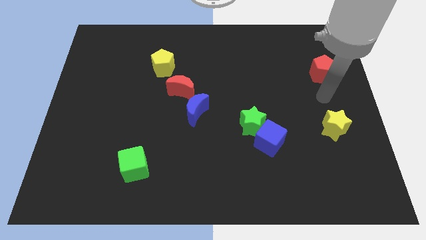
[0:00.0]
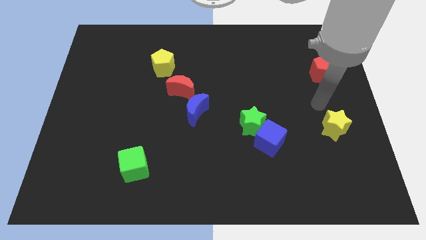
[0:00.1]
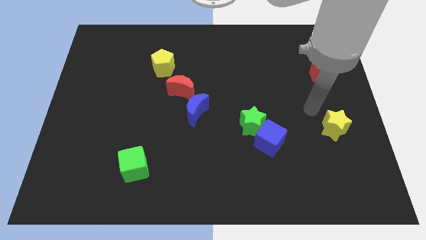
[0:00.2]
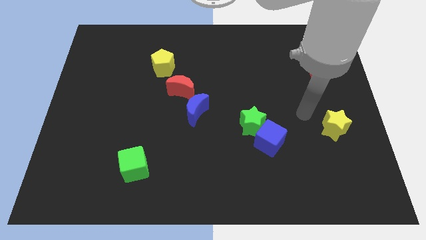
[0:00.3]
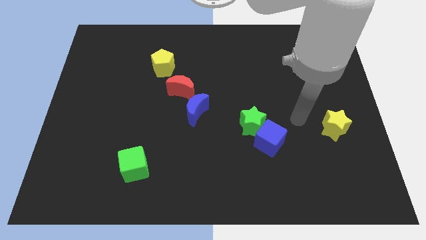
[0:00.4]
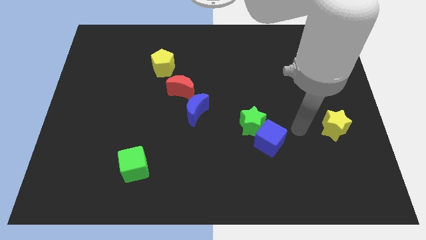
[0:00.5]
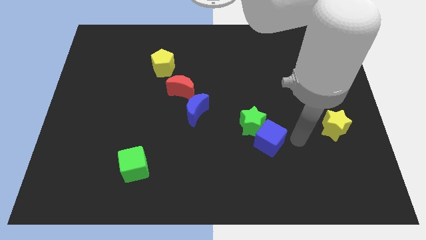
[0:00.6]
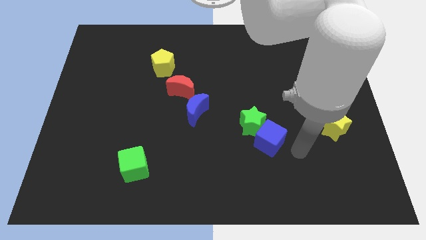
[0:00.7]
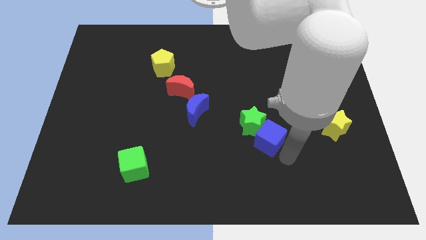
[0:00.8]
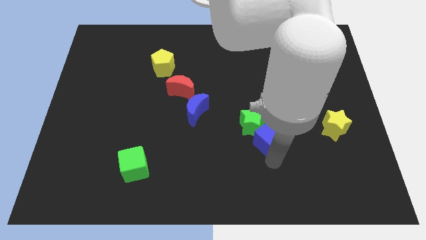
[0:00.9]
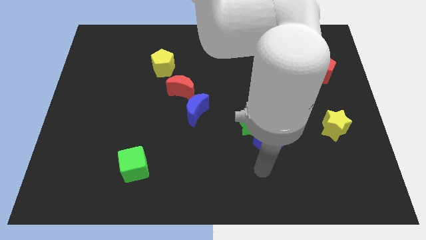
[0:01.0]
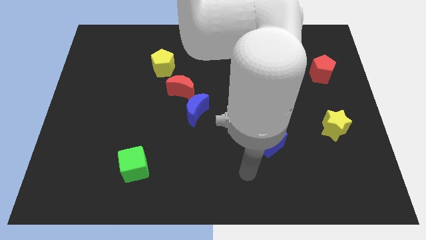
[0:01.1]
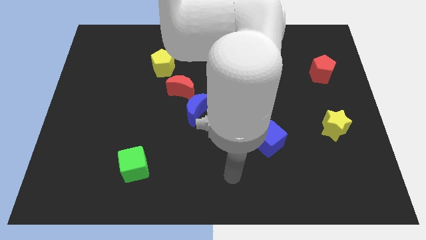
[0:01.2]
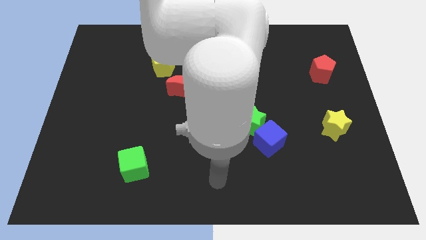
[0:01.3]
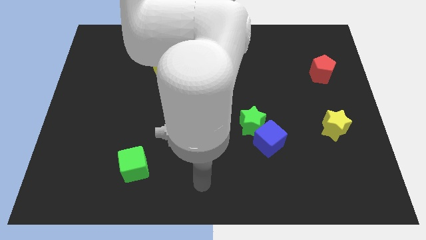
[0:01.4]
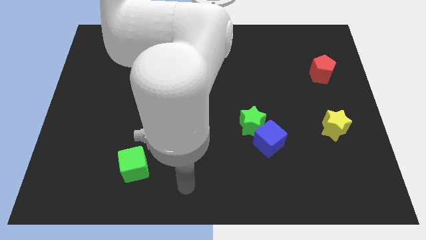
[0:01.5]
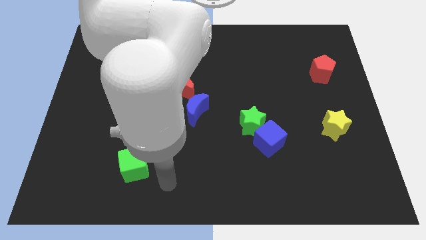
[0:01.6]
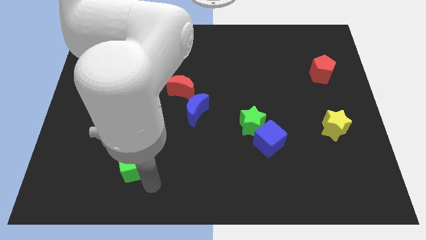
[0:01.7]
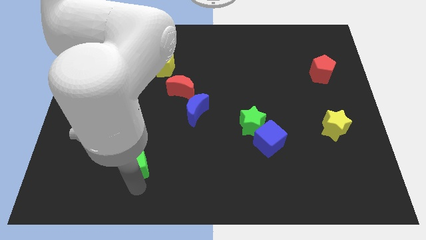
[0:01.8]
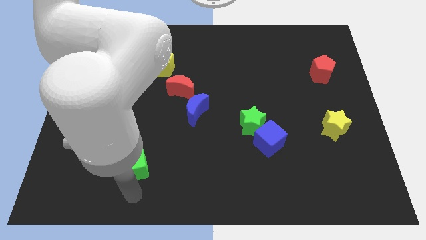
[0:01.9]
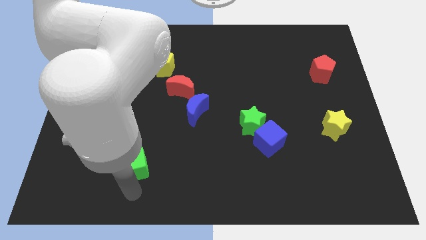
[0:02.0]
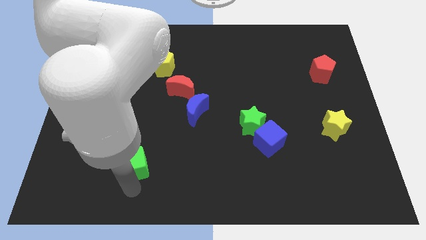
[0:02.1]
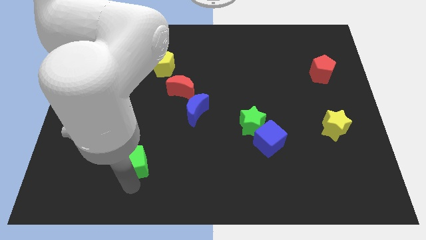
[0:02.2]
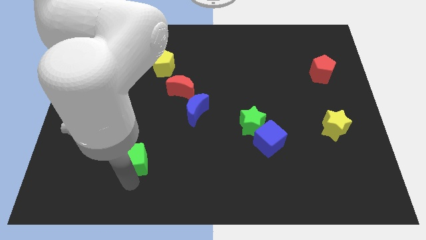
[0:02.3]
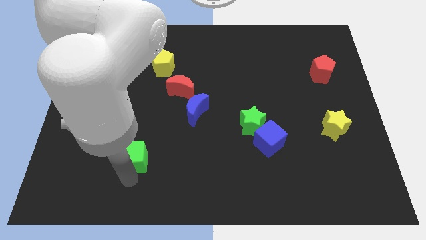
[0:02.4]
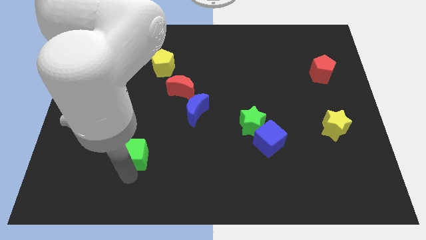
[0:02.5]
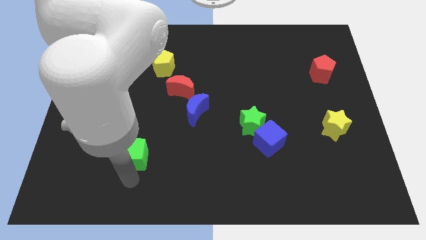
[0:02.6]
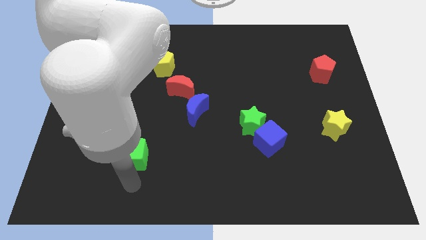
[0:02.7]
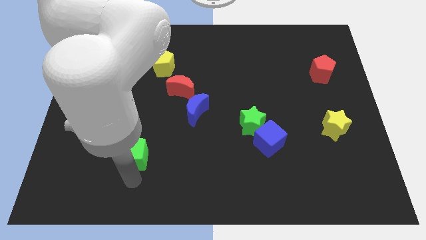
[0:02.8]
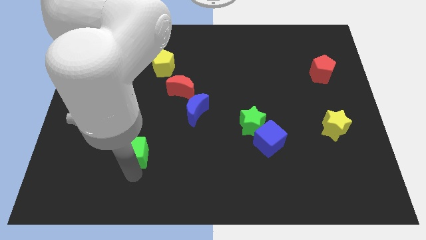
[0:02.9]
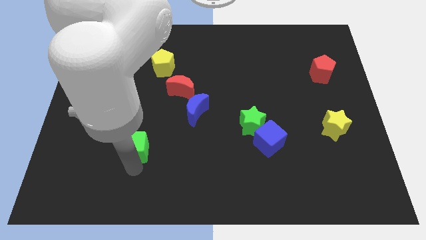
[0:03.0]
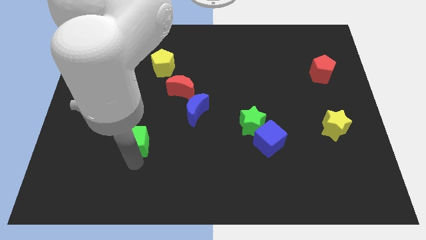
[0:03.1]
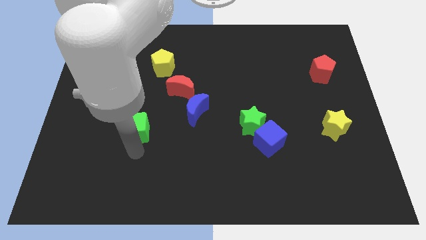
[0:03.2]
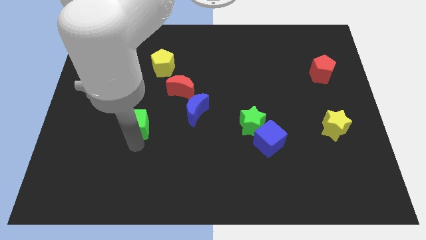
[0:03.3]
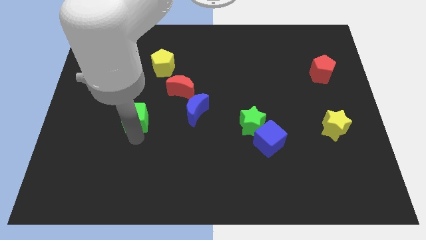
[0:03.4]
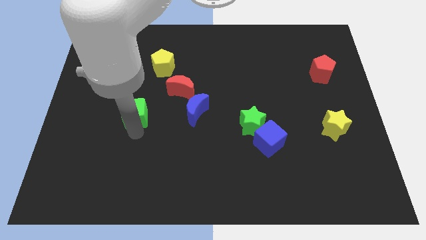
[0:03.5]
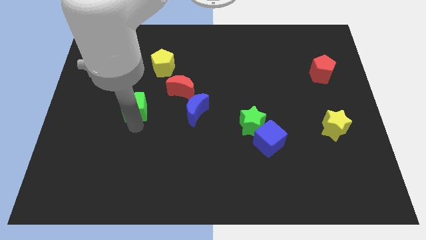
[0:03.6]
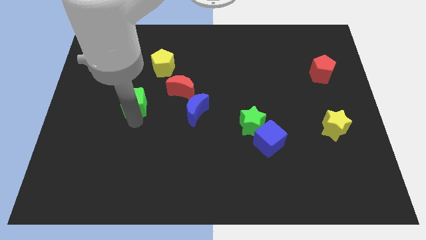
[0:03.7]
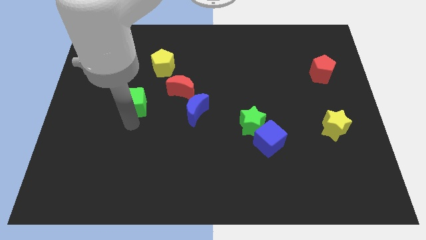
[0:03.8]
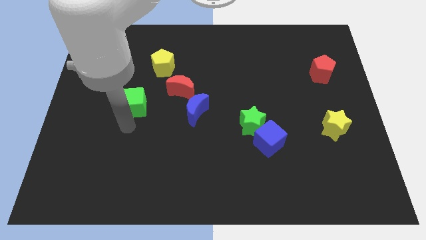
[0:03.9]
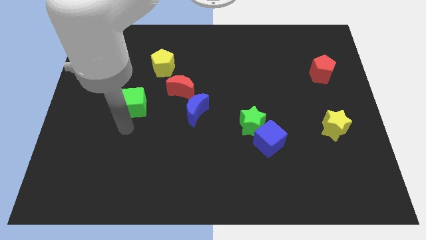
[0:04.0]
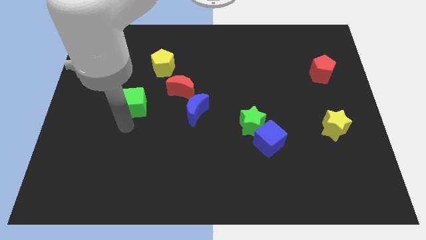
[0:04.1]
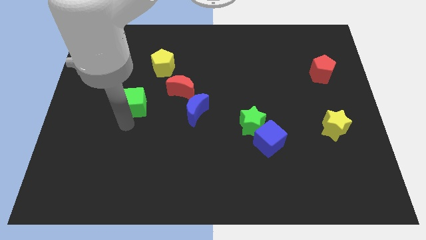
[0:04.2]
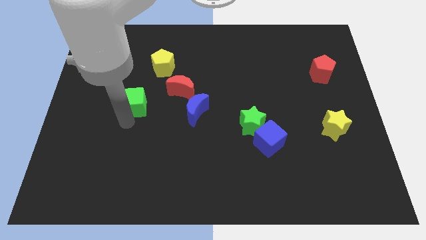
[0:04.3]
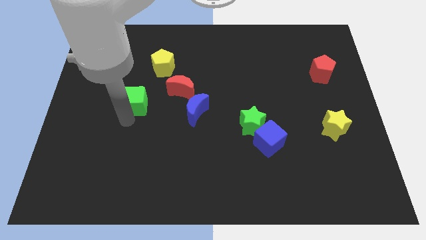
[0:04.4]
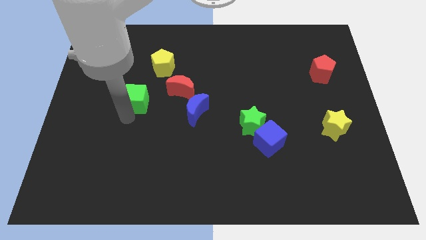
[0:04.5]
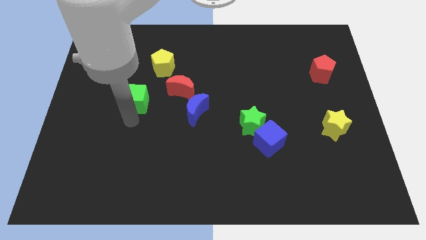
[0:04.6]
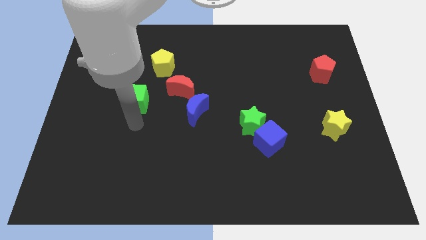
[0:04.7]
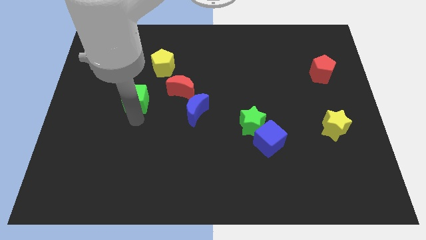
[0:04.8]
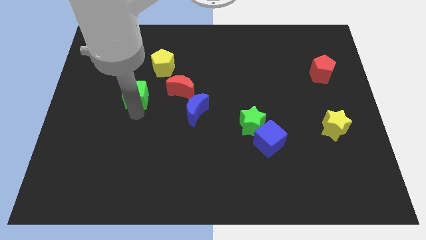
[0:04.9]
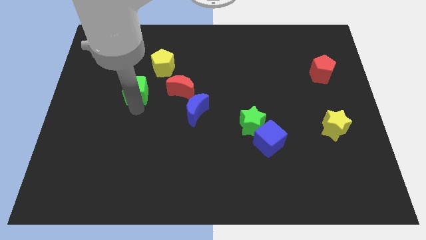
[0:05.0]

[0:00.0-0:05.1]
push the green cube up

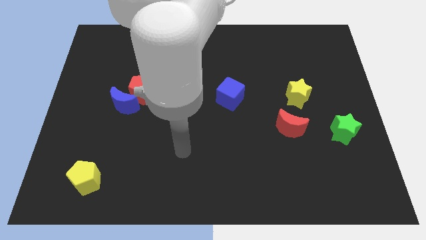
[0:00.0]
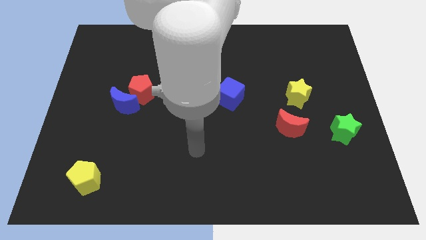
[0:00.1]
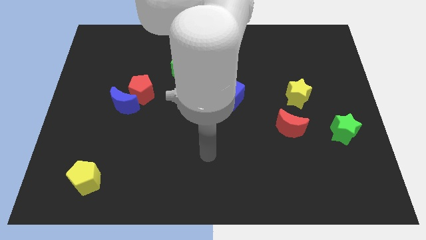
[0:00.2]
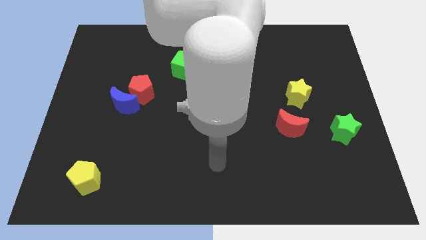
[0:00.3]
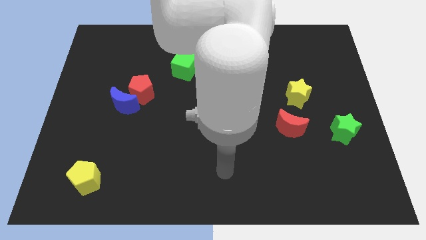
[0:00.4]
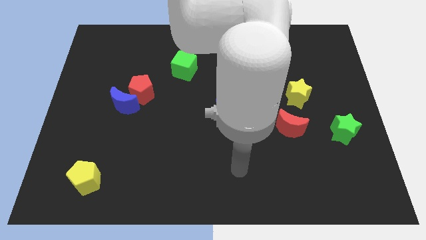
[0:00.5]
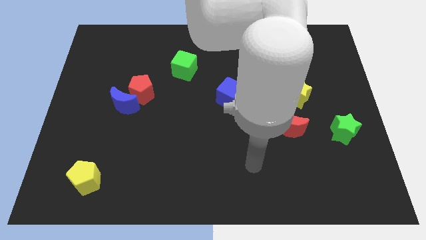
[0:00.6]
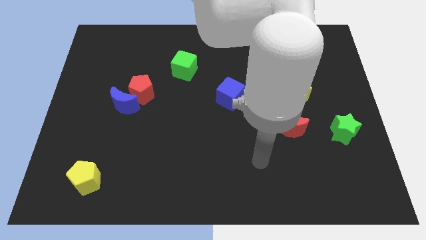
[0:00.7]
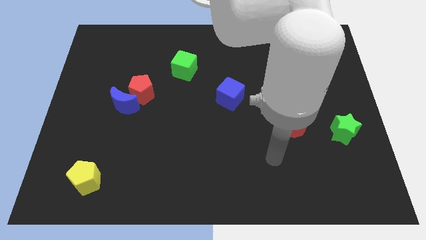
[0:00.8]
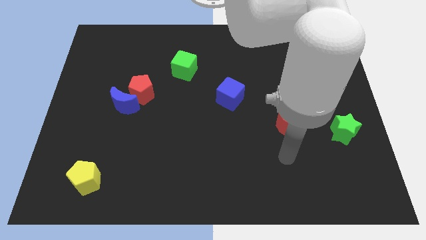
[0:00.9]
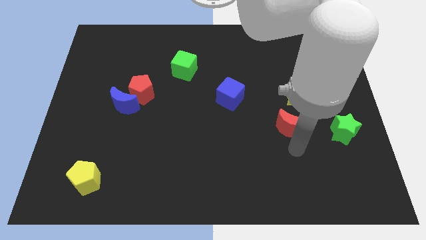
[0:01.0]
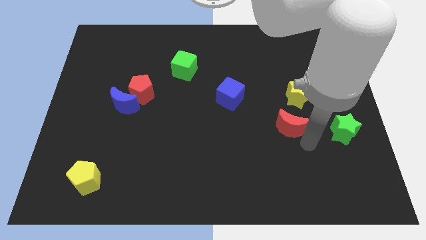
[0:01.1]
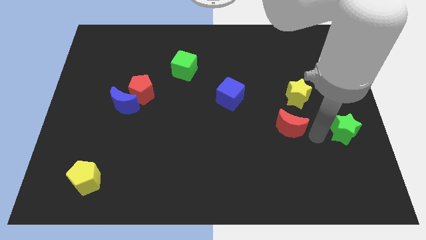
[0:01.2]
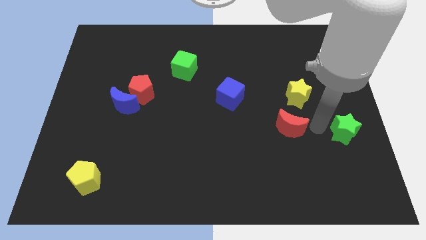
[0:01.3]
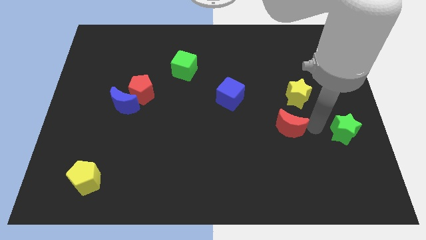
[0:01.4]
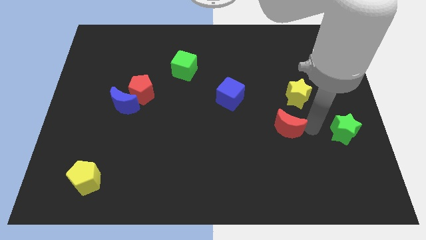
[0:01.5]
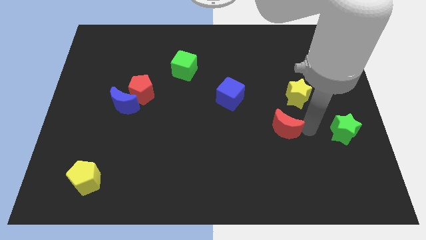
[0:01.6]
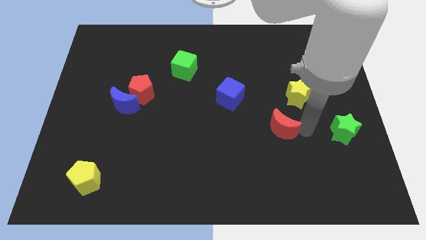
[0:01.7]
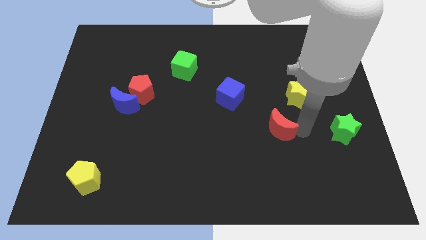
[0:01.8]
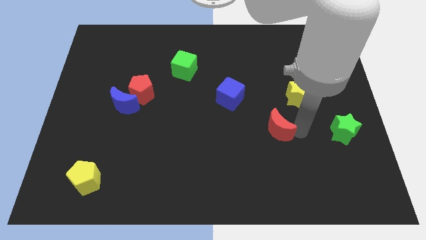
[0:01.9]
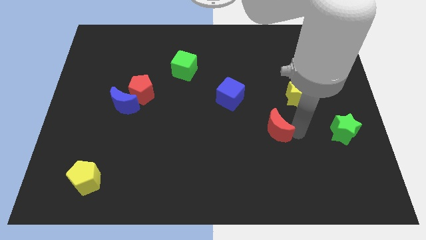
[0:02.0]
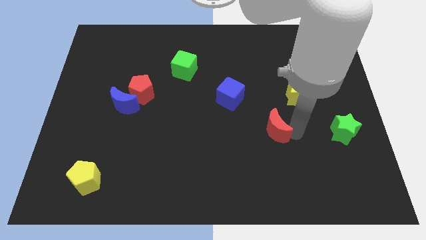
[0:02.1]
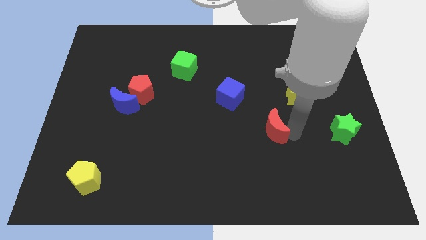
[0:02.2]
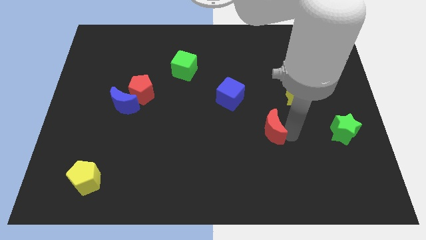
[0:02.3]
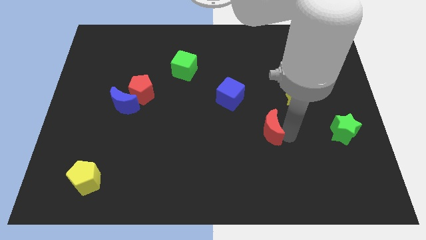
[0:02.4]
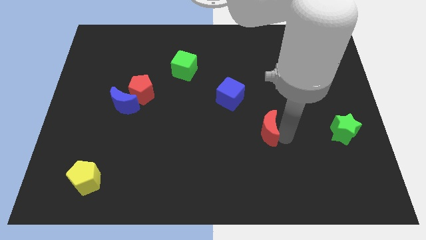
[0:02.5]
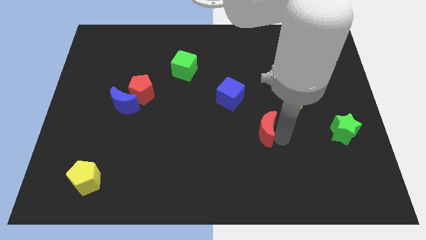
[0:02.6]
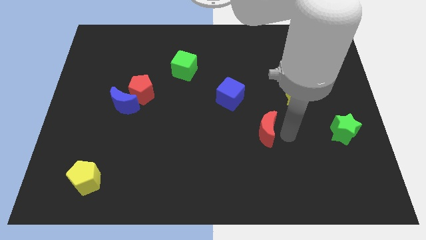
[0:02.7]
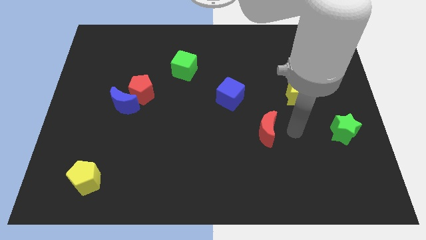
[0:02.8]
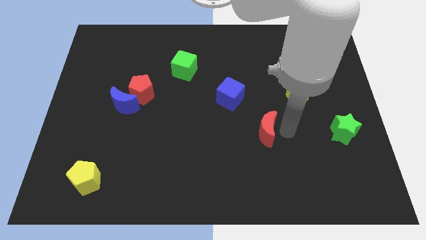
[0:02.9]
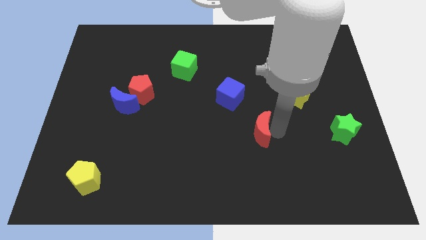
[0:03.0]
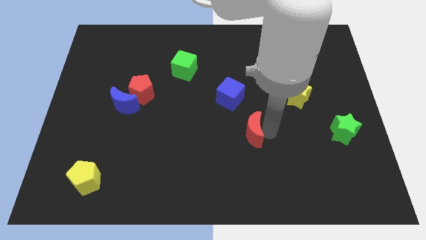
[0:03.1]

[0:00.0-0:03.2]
slide the red moon a little left

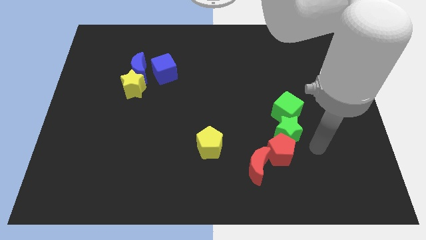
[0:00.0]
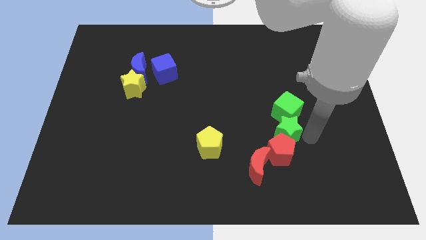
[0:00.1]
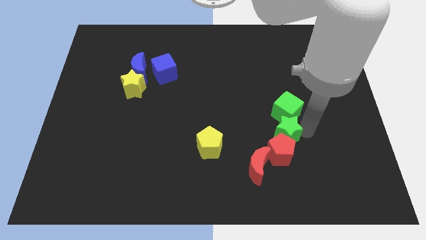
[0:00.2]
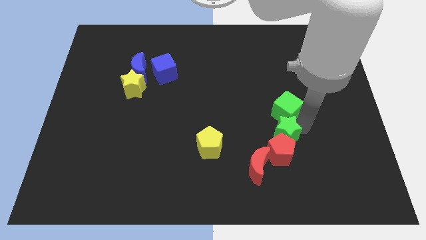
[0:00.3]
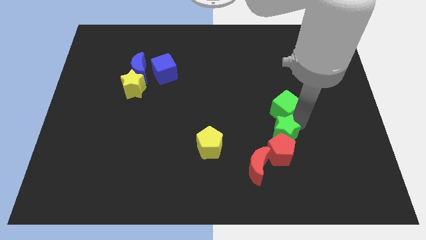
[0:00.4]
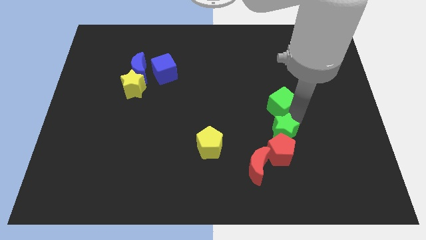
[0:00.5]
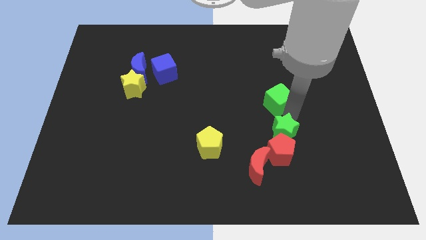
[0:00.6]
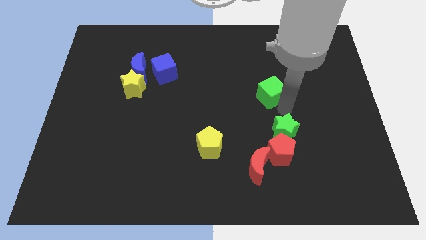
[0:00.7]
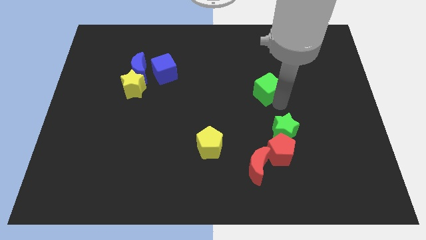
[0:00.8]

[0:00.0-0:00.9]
push the green cube upwards and left a bit
